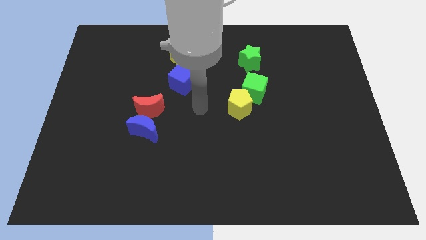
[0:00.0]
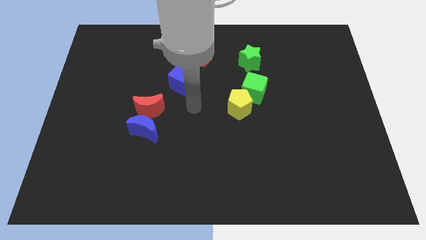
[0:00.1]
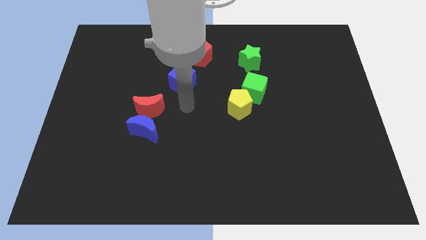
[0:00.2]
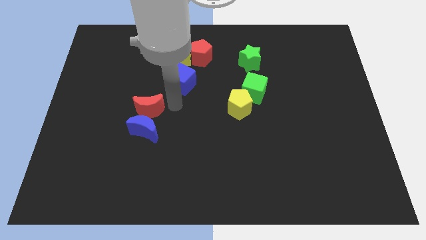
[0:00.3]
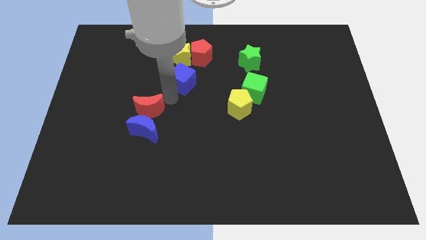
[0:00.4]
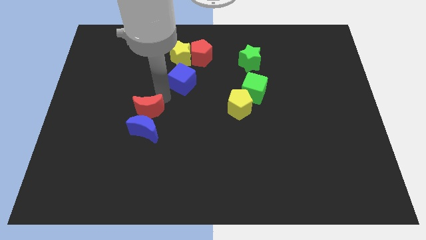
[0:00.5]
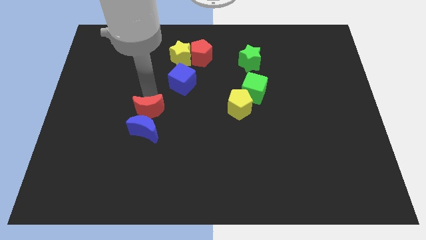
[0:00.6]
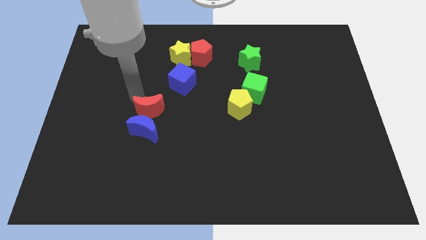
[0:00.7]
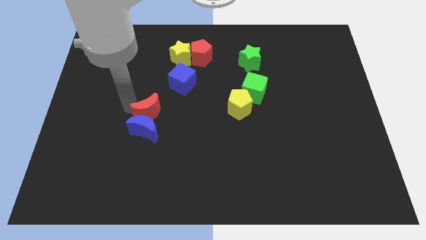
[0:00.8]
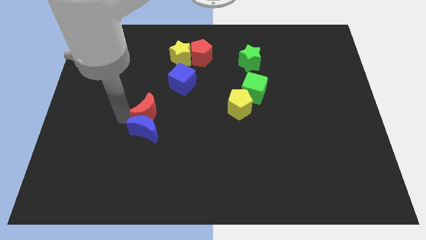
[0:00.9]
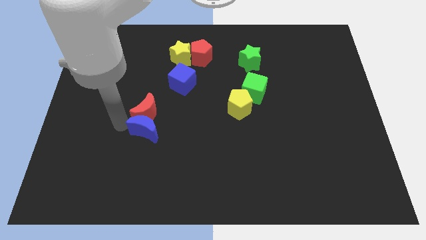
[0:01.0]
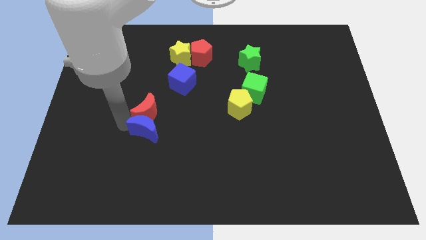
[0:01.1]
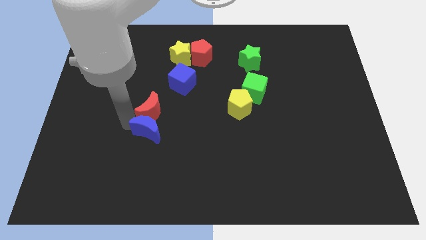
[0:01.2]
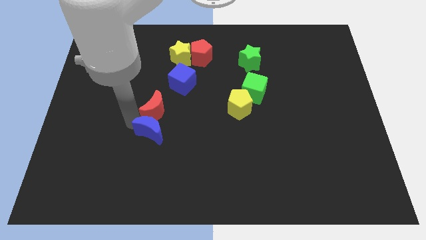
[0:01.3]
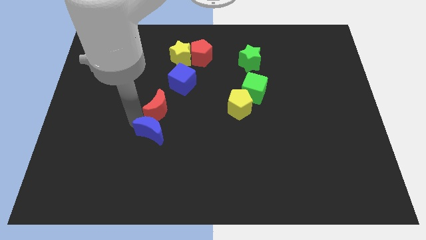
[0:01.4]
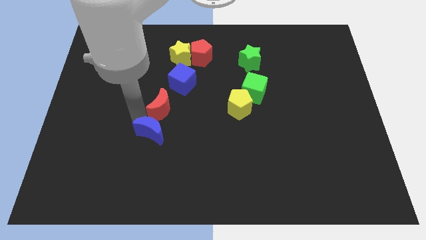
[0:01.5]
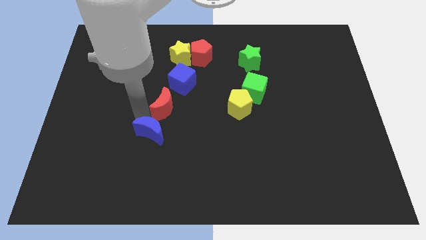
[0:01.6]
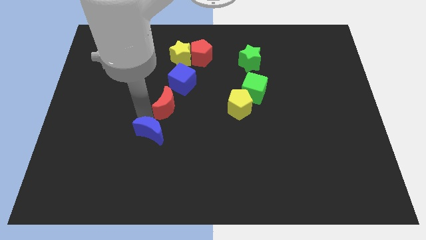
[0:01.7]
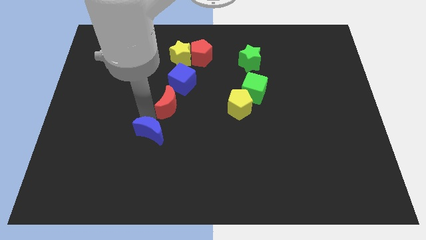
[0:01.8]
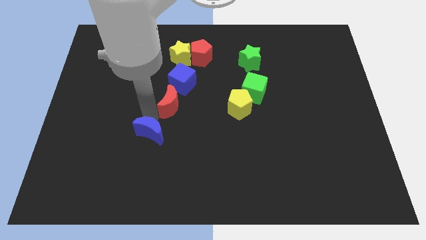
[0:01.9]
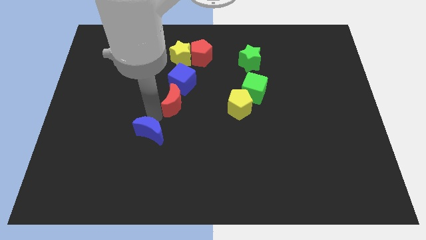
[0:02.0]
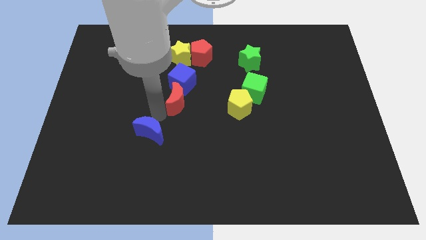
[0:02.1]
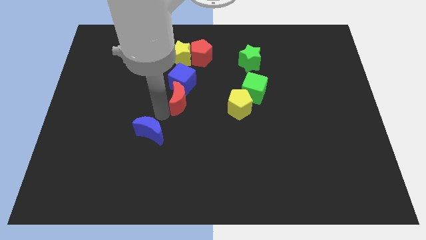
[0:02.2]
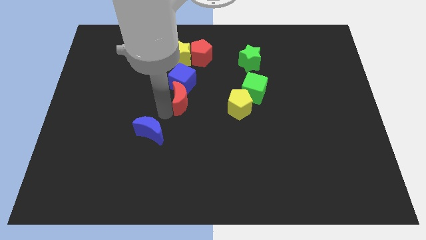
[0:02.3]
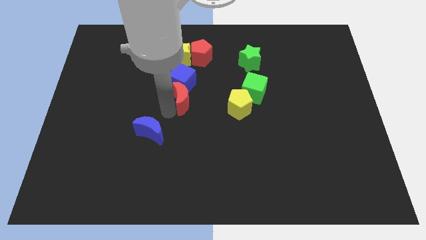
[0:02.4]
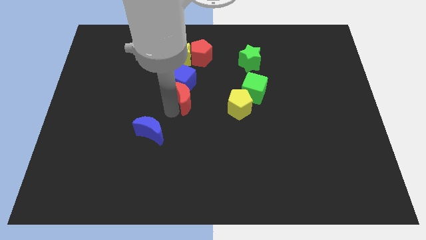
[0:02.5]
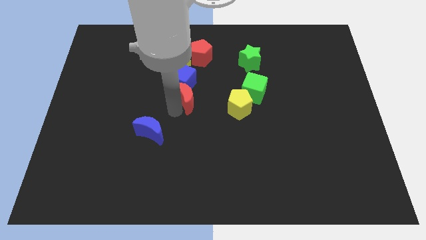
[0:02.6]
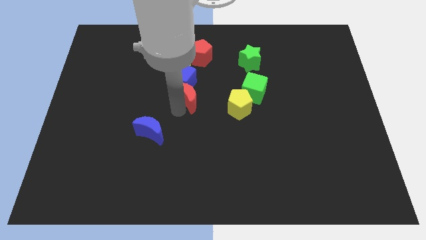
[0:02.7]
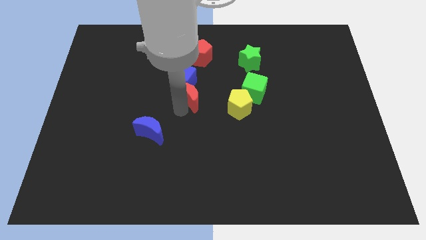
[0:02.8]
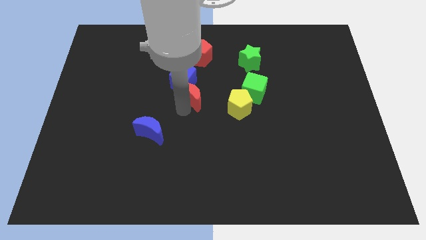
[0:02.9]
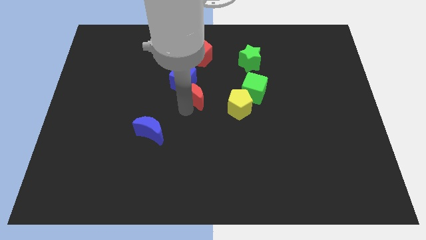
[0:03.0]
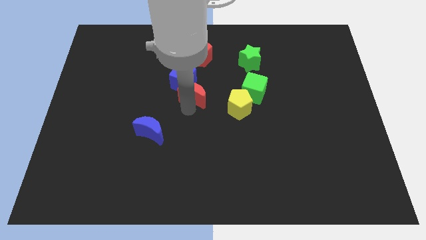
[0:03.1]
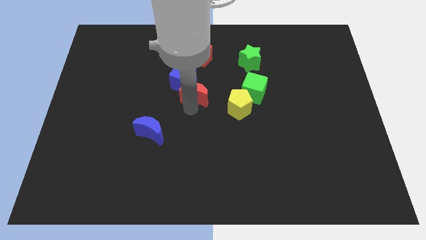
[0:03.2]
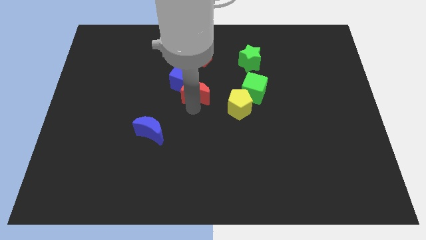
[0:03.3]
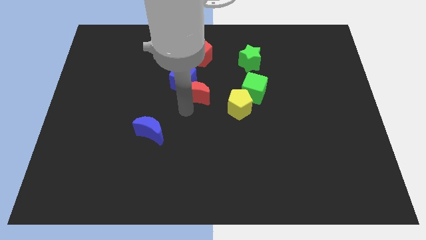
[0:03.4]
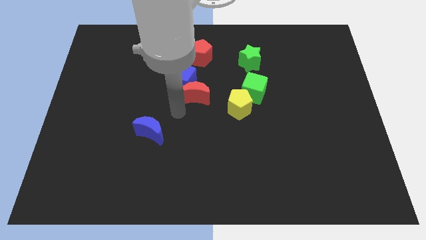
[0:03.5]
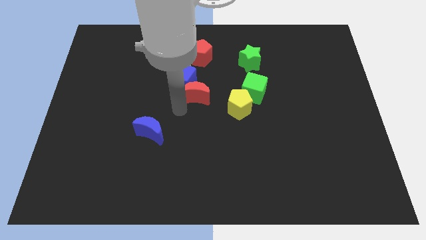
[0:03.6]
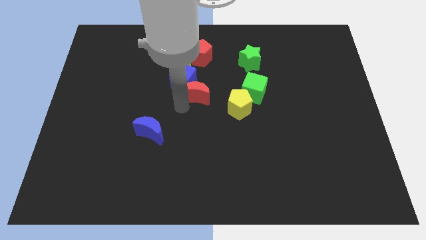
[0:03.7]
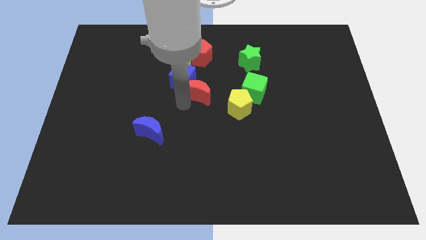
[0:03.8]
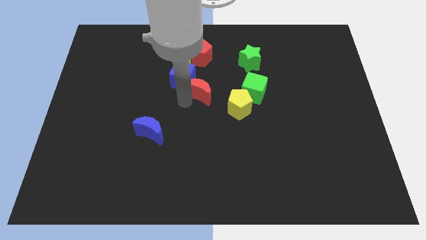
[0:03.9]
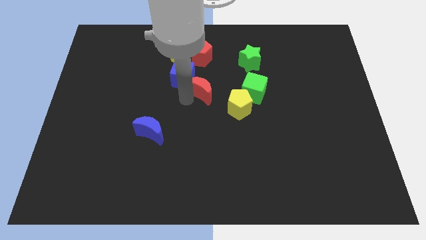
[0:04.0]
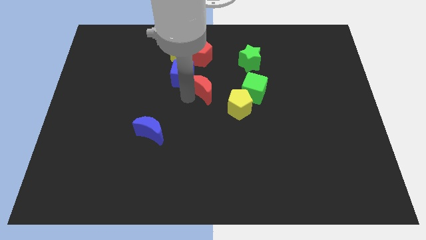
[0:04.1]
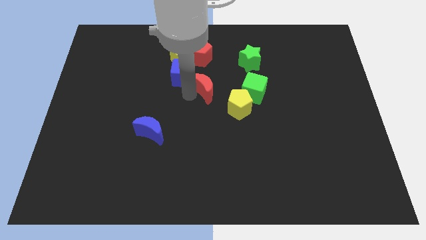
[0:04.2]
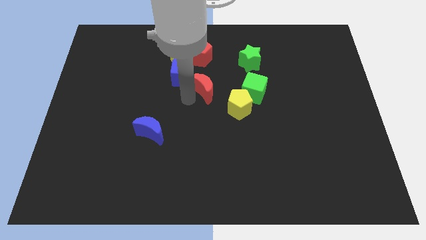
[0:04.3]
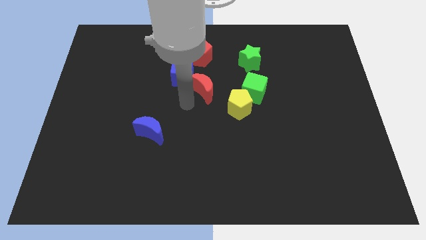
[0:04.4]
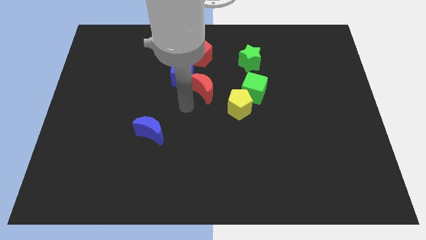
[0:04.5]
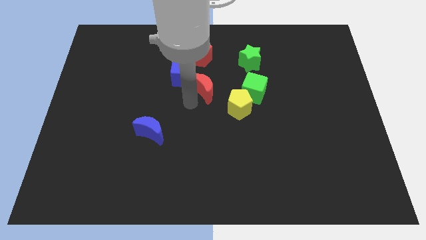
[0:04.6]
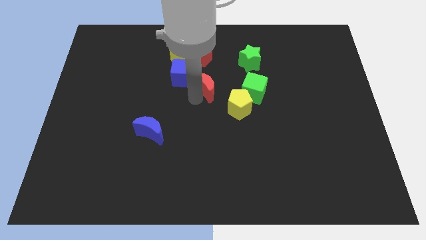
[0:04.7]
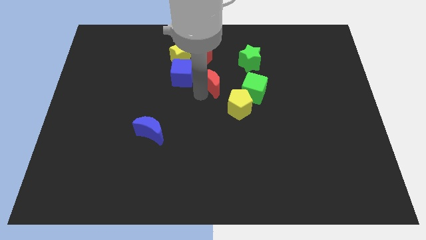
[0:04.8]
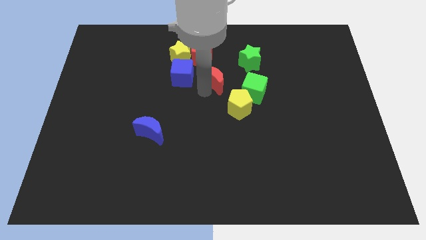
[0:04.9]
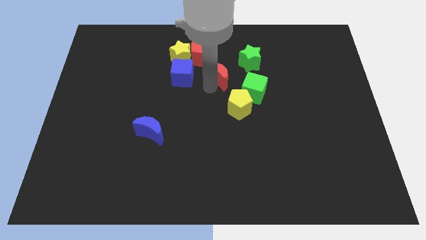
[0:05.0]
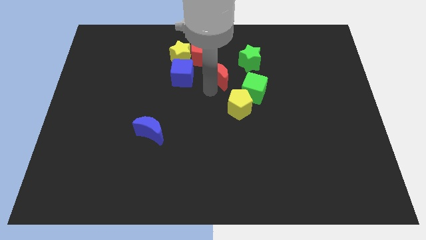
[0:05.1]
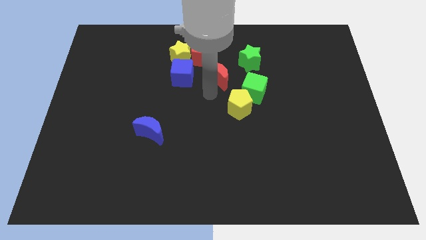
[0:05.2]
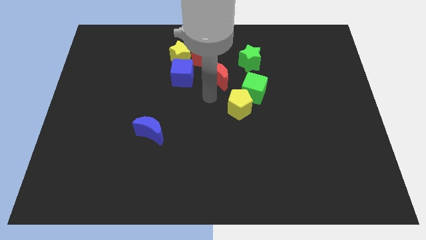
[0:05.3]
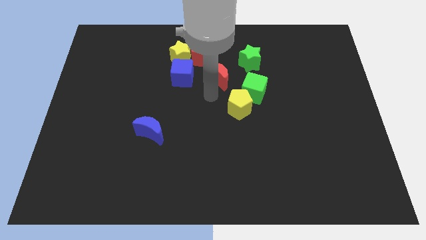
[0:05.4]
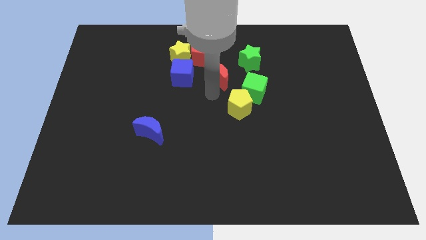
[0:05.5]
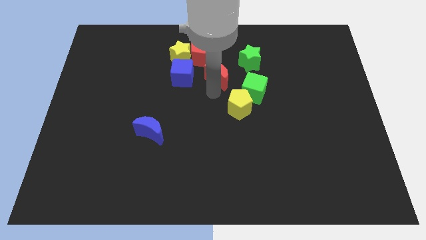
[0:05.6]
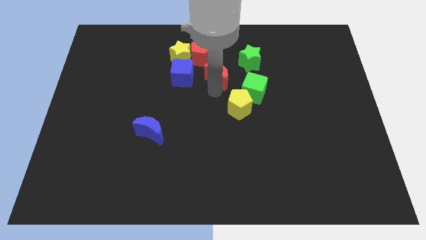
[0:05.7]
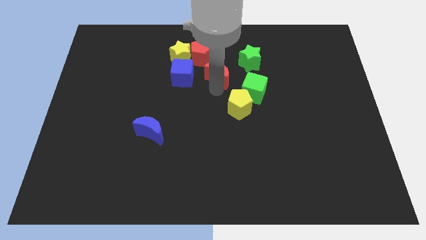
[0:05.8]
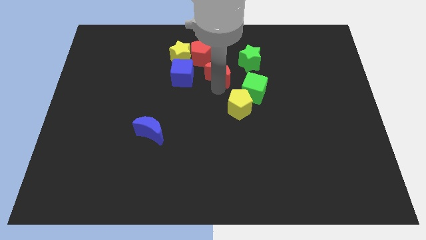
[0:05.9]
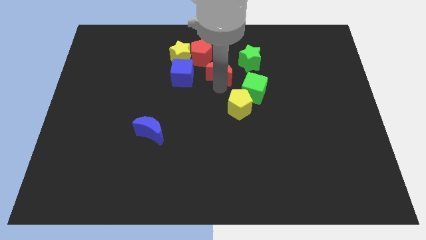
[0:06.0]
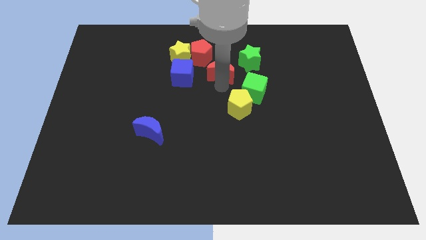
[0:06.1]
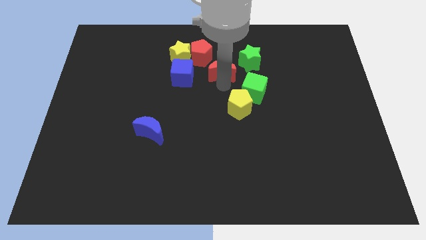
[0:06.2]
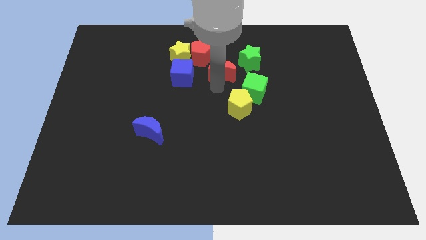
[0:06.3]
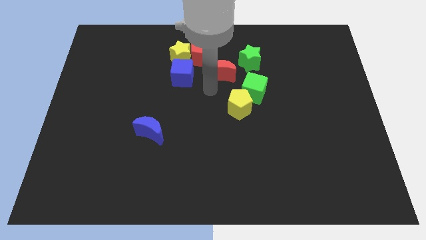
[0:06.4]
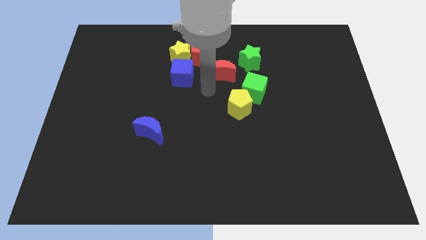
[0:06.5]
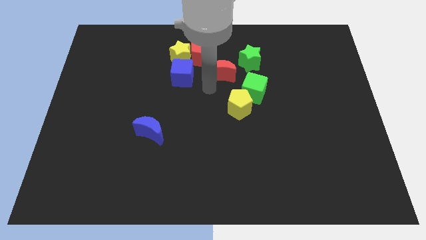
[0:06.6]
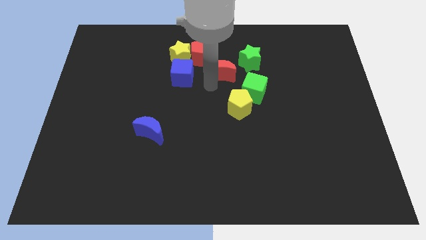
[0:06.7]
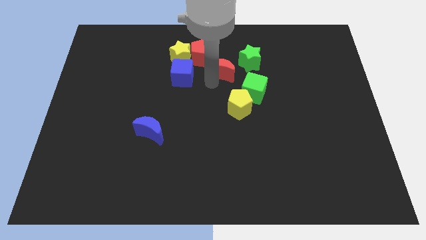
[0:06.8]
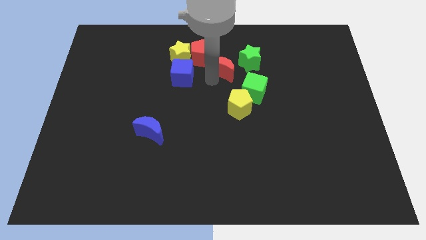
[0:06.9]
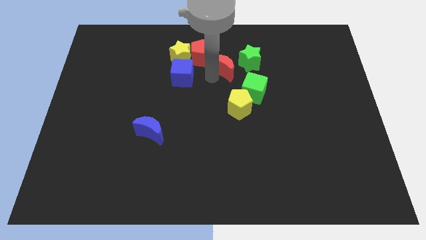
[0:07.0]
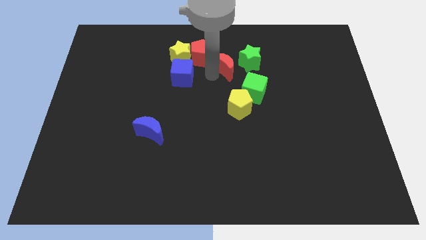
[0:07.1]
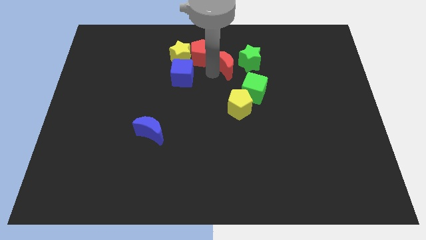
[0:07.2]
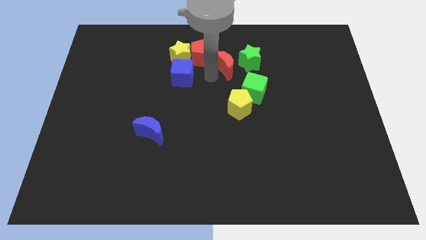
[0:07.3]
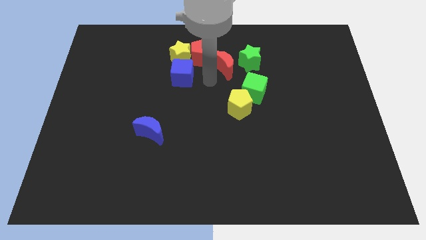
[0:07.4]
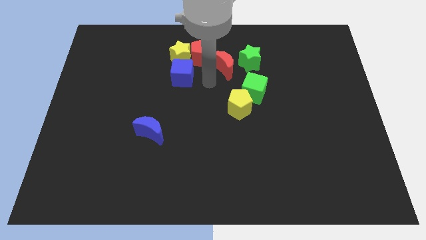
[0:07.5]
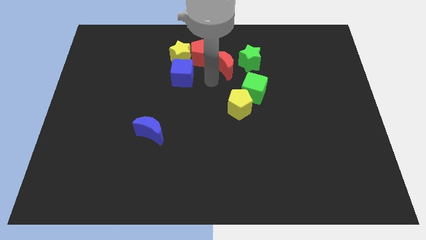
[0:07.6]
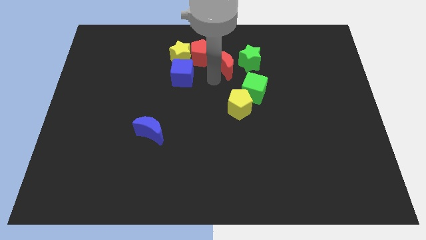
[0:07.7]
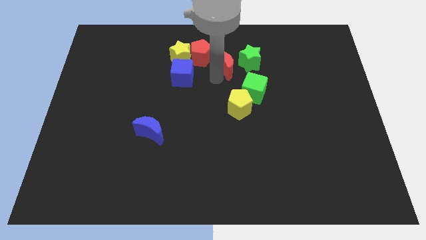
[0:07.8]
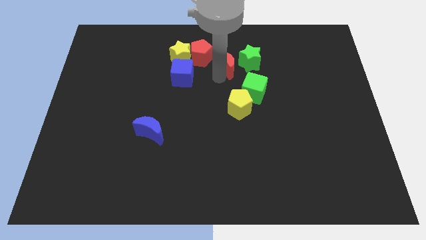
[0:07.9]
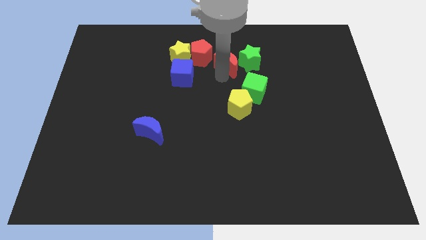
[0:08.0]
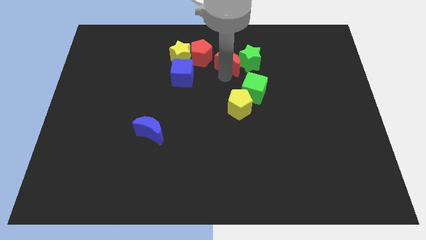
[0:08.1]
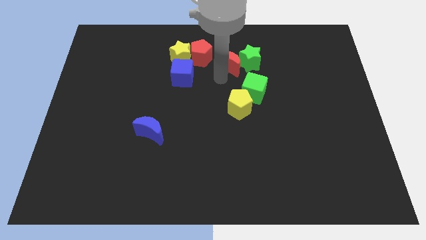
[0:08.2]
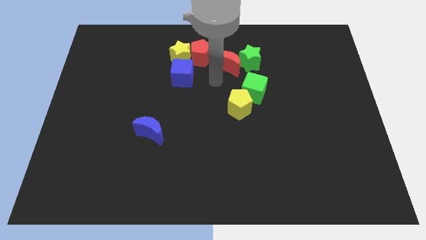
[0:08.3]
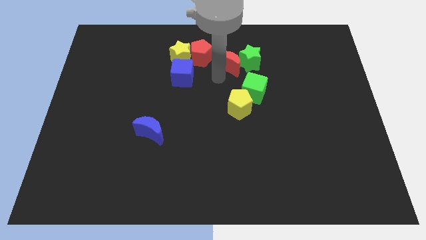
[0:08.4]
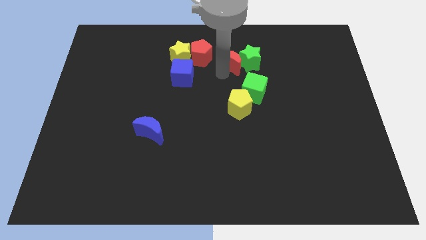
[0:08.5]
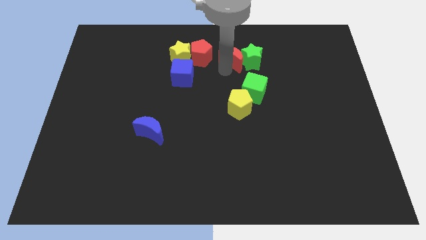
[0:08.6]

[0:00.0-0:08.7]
slide the red moon to the top side of the green cube
